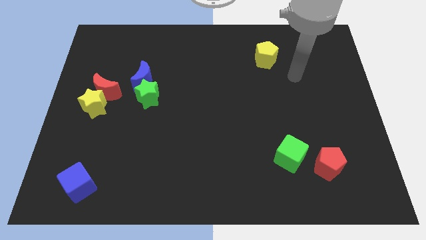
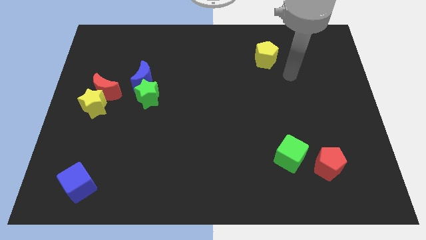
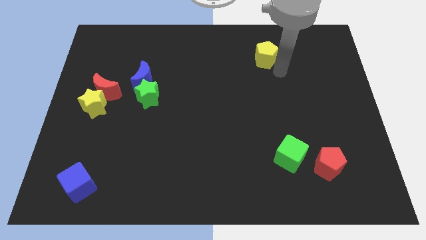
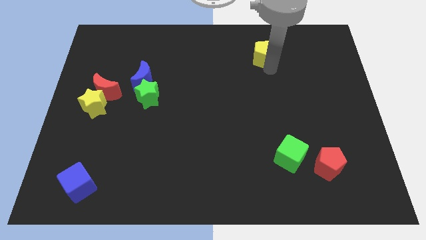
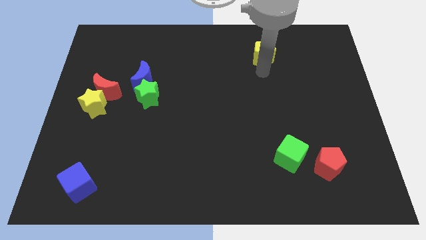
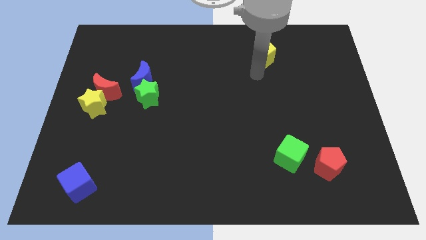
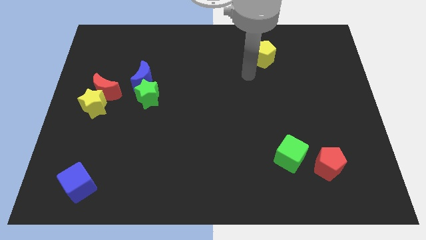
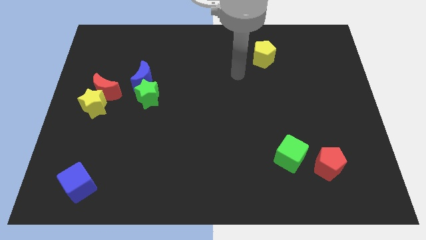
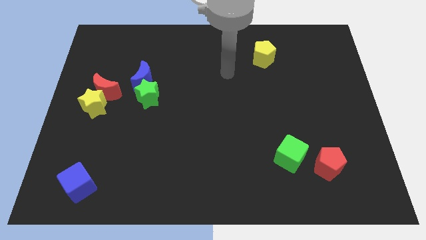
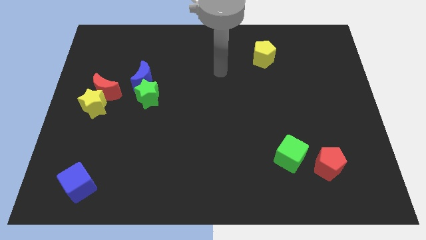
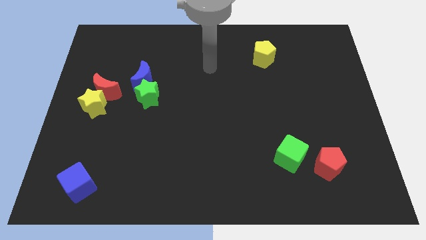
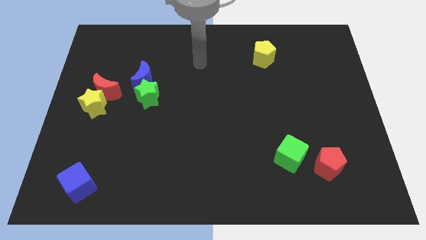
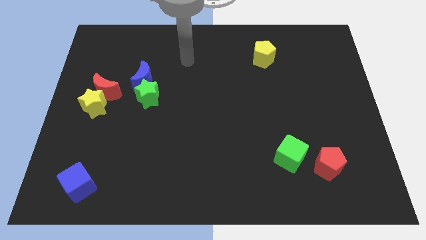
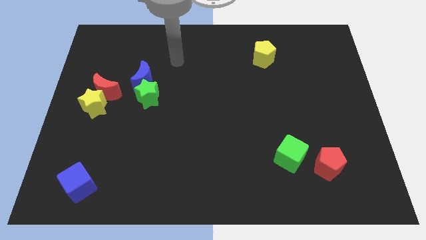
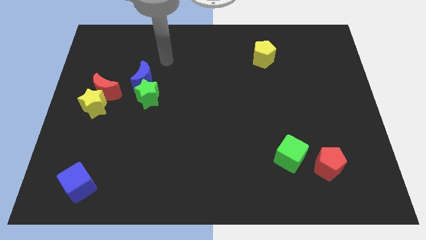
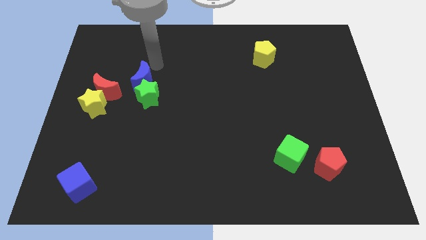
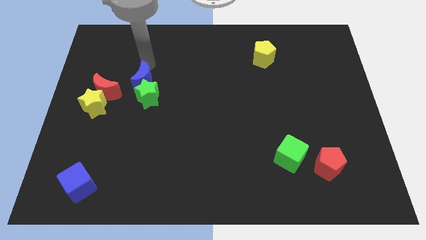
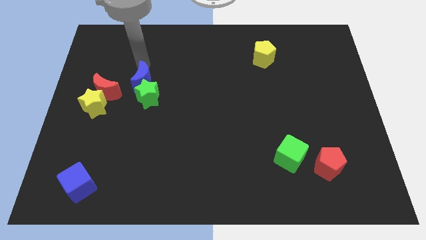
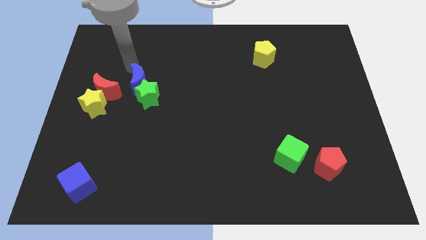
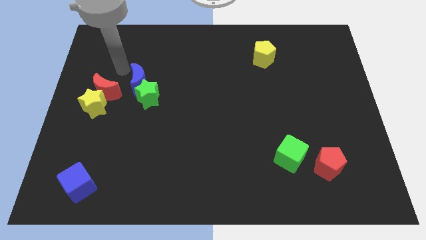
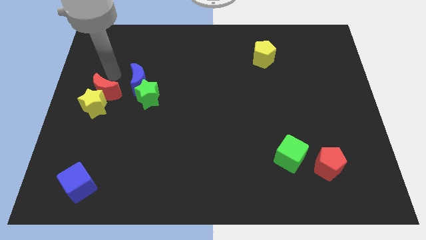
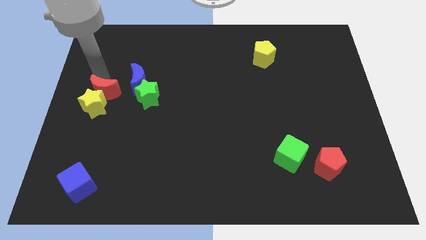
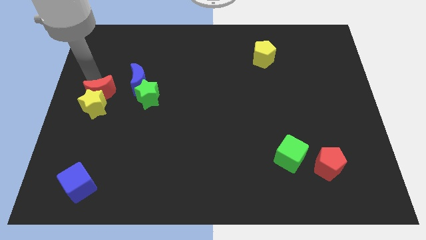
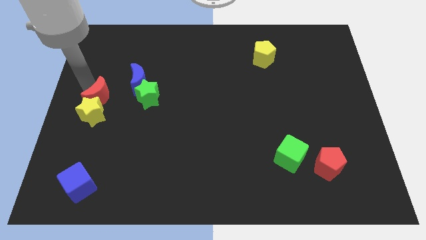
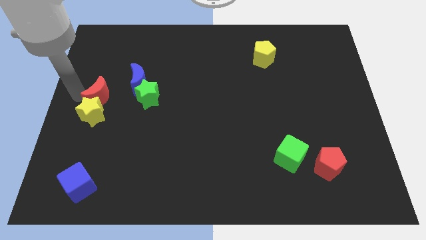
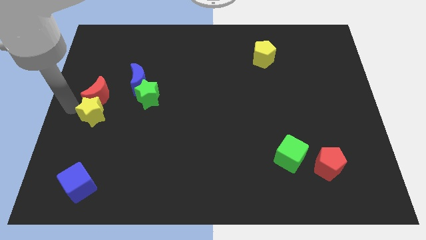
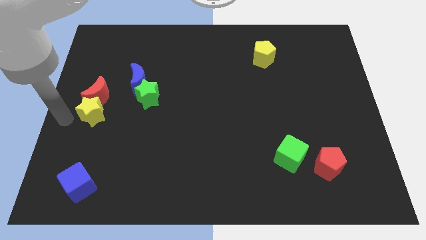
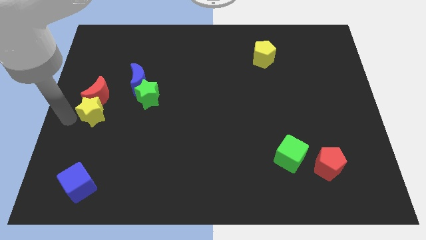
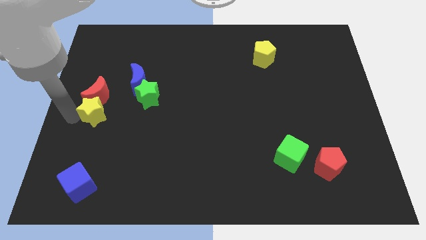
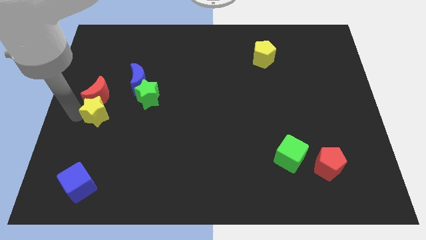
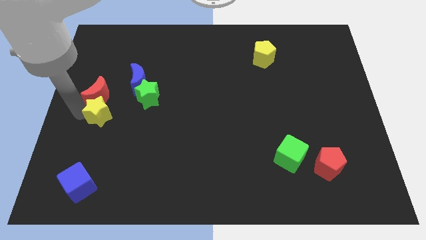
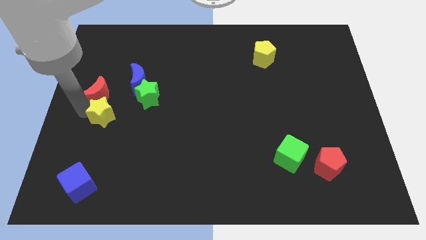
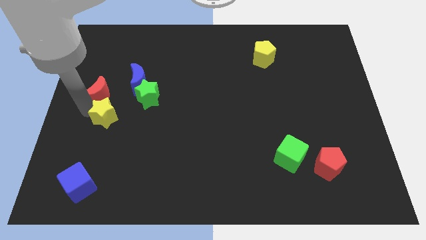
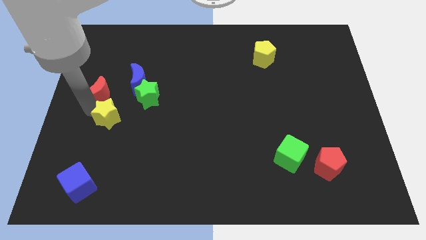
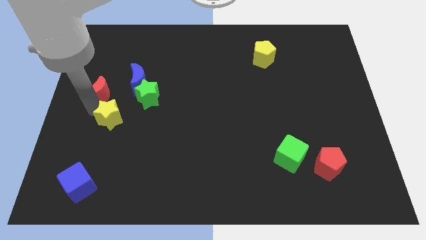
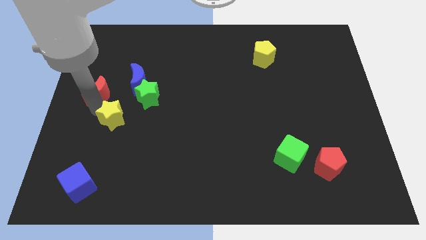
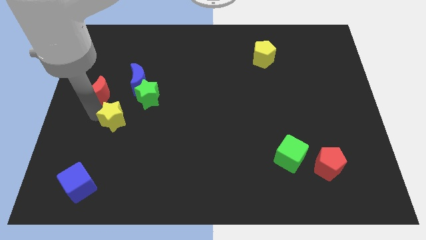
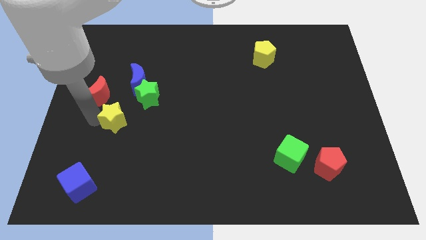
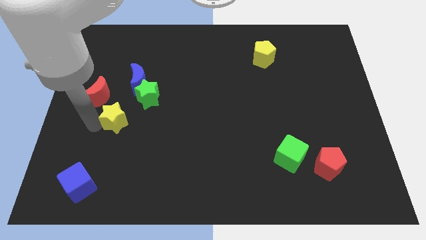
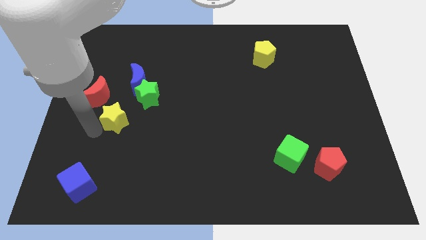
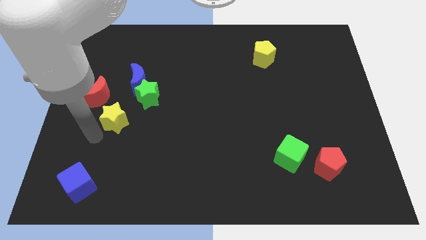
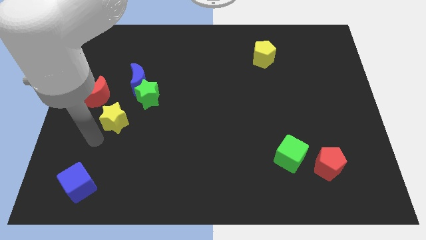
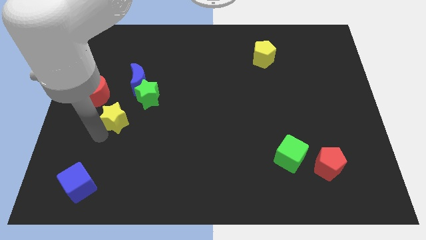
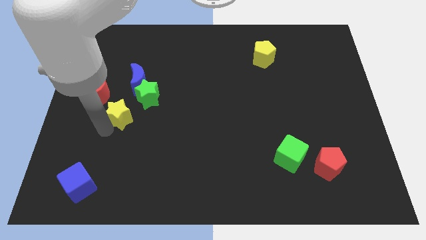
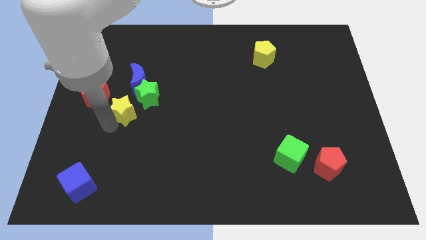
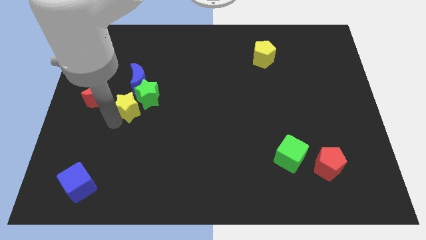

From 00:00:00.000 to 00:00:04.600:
slide the yellow star close to the green star
